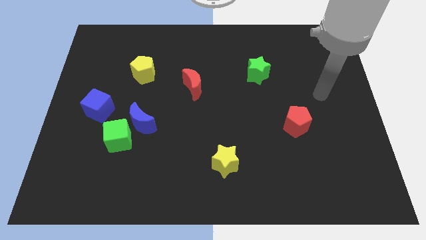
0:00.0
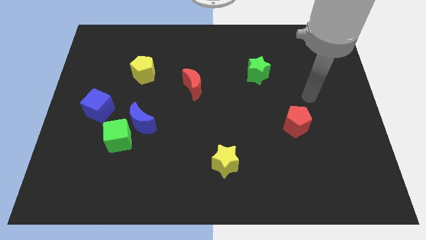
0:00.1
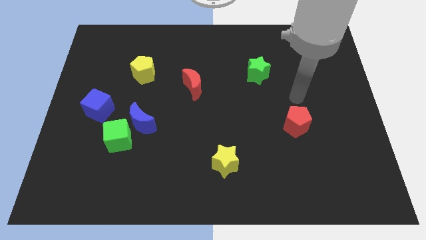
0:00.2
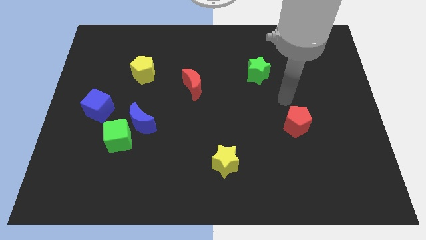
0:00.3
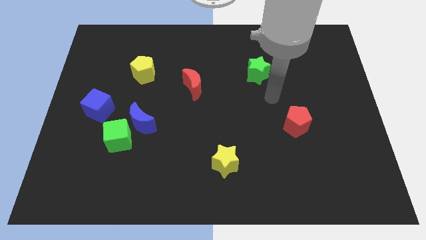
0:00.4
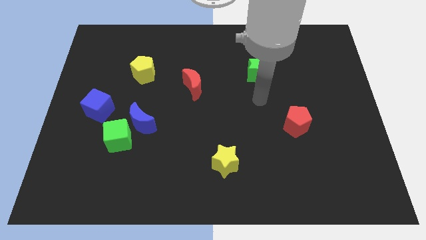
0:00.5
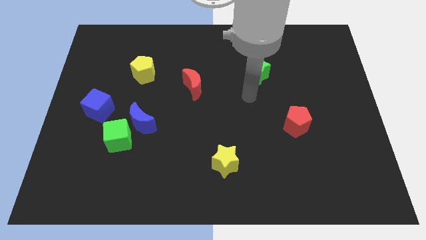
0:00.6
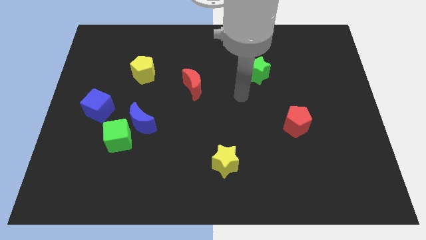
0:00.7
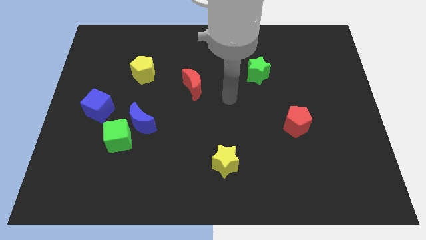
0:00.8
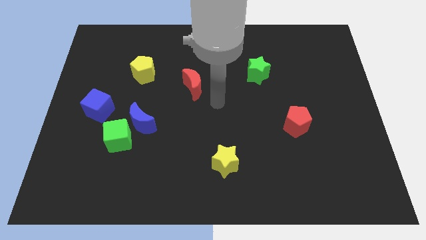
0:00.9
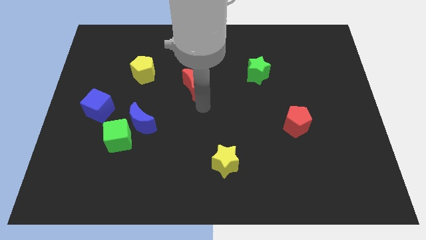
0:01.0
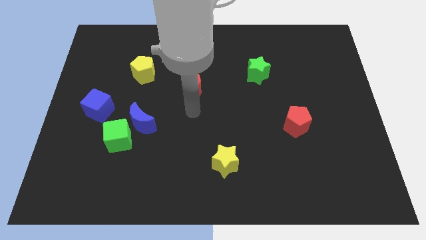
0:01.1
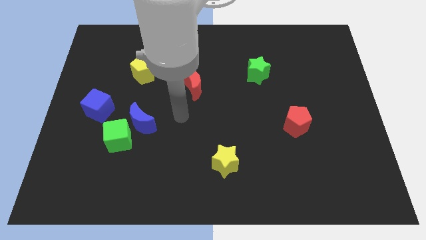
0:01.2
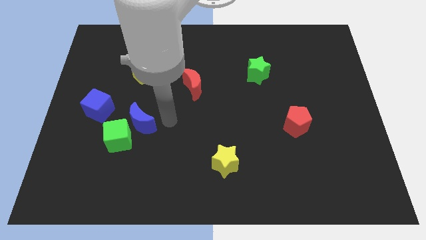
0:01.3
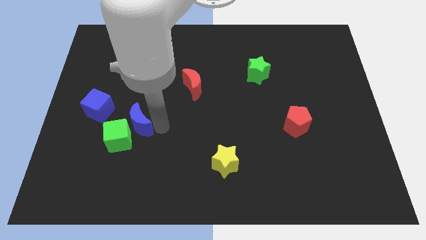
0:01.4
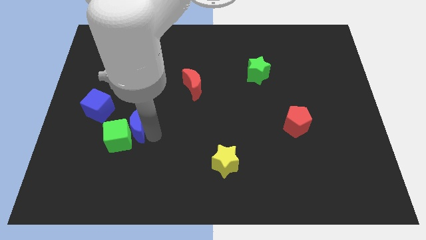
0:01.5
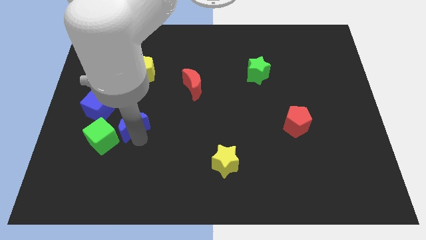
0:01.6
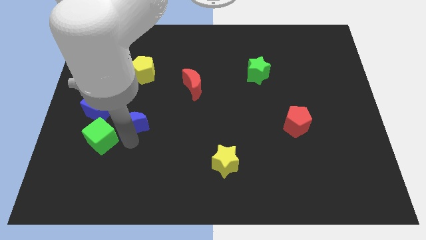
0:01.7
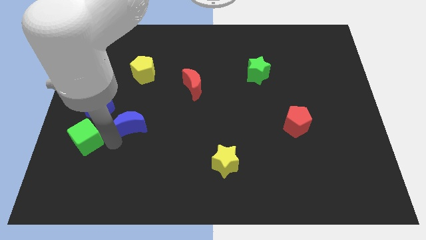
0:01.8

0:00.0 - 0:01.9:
pull the blue moon apart from the green cube

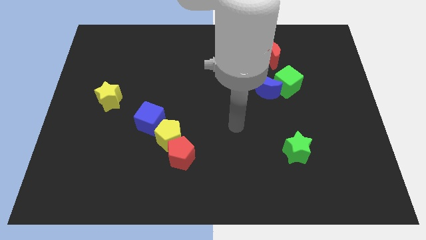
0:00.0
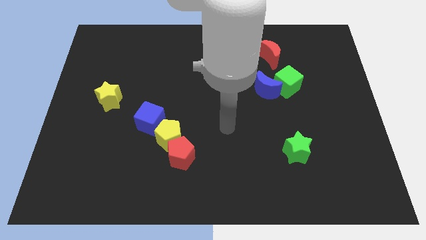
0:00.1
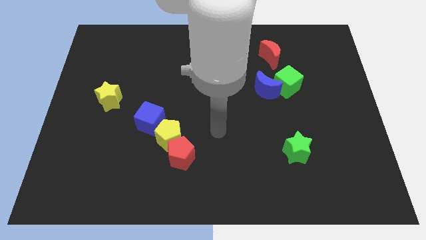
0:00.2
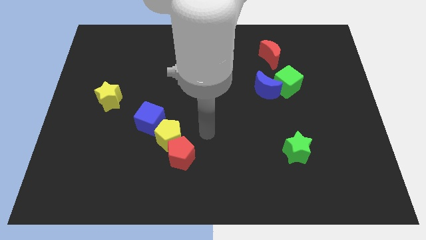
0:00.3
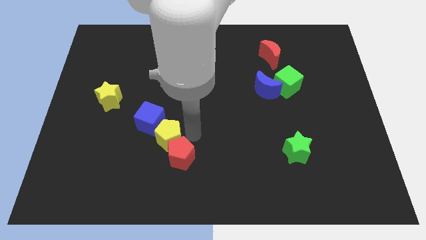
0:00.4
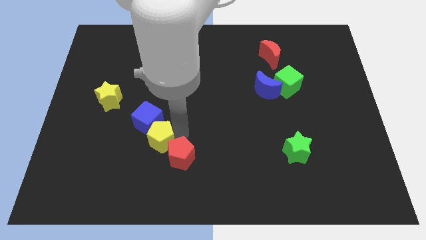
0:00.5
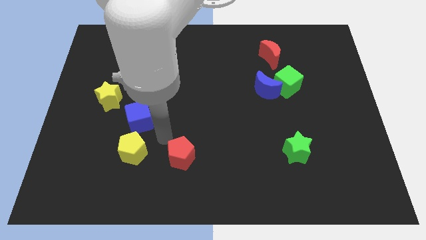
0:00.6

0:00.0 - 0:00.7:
separate the red pentagon from the yellow pentagon

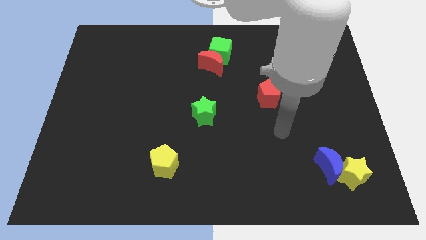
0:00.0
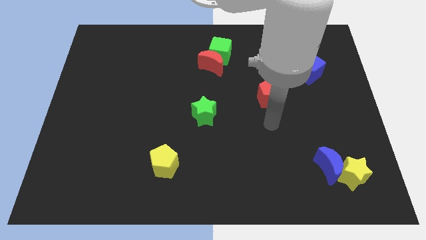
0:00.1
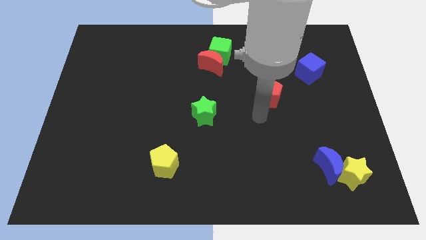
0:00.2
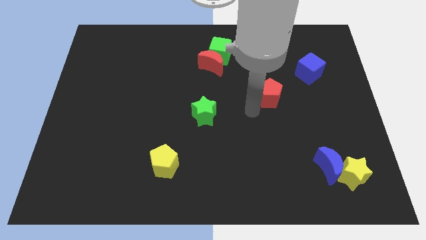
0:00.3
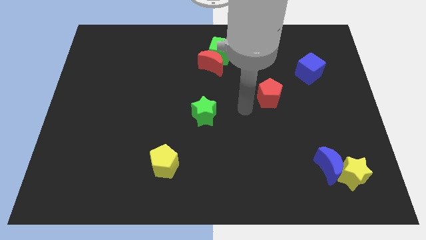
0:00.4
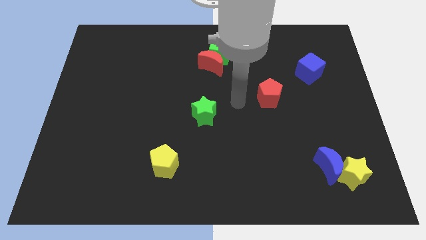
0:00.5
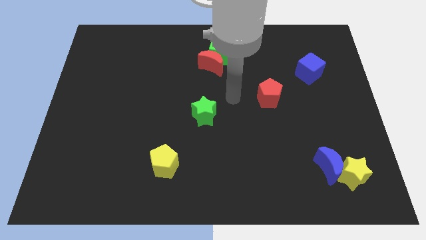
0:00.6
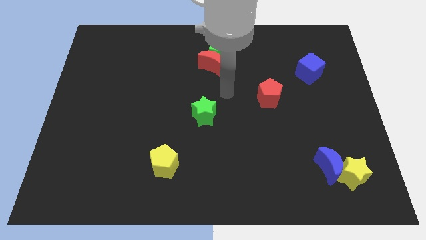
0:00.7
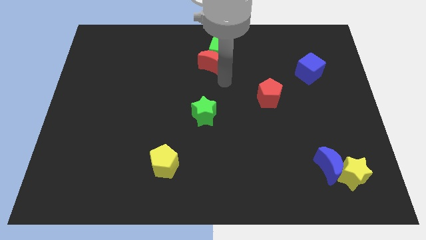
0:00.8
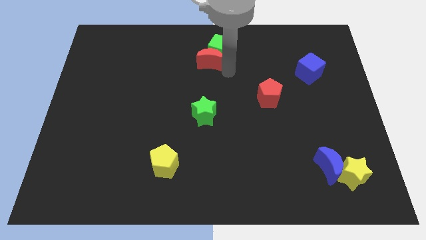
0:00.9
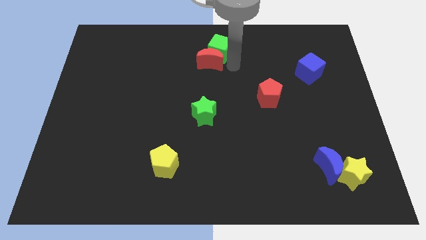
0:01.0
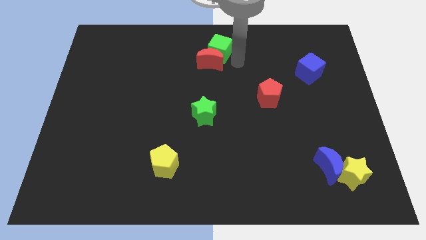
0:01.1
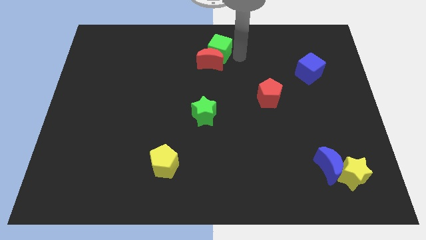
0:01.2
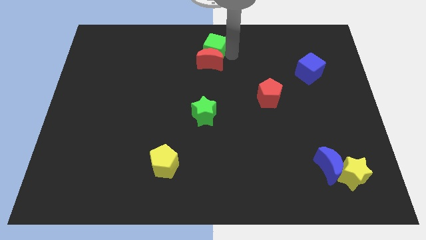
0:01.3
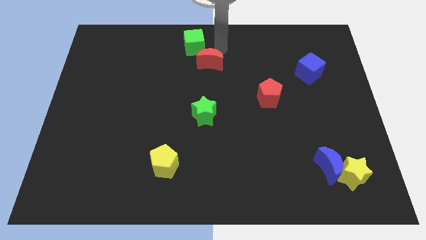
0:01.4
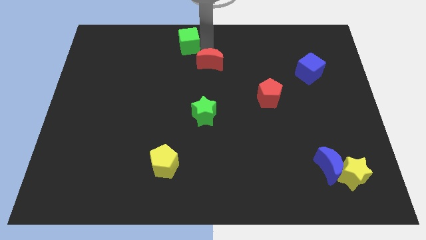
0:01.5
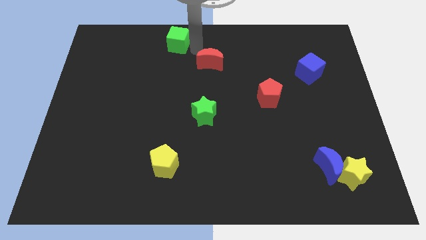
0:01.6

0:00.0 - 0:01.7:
move the red moon away from the green cube

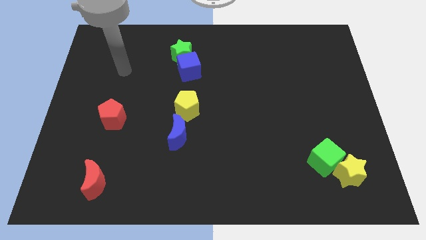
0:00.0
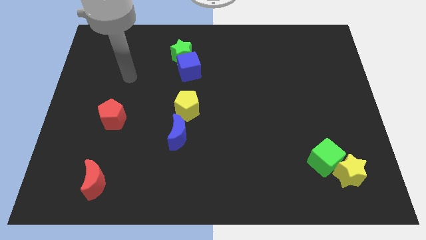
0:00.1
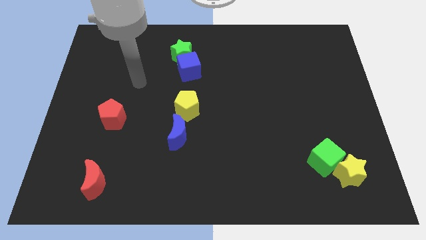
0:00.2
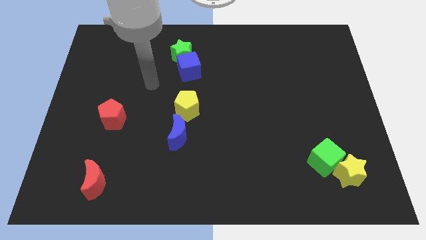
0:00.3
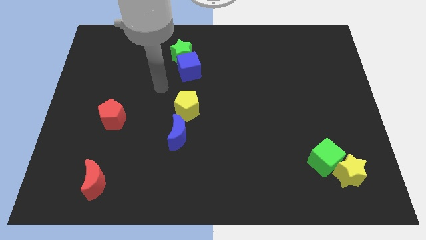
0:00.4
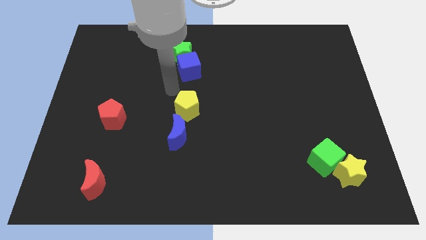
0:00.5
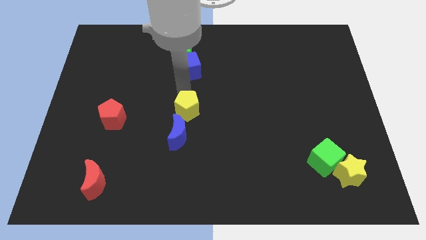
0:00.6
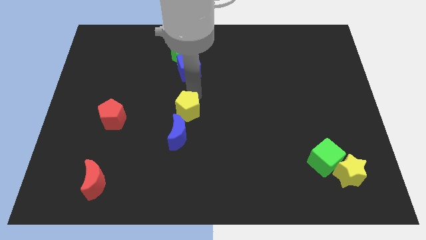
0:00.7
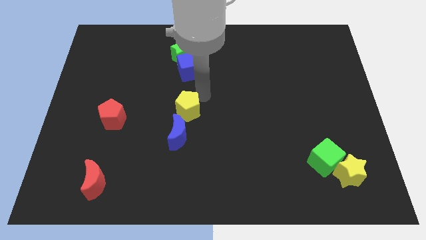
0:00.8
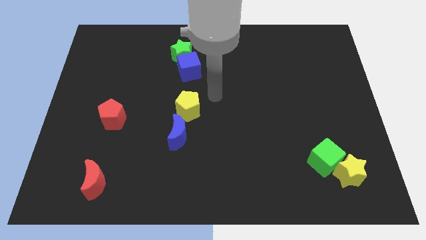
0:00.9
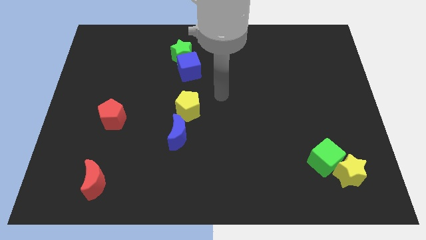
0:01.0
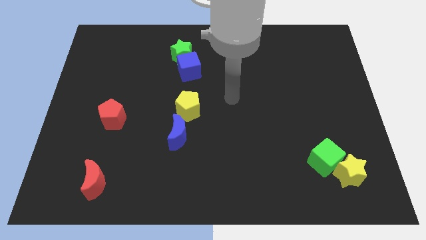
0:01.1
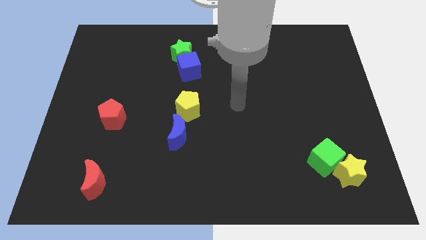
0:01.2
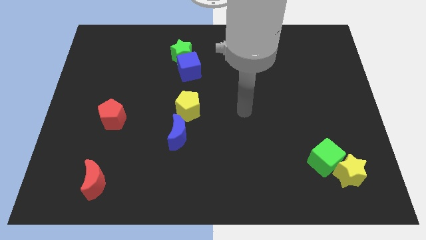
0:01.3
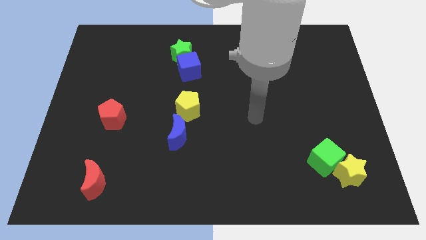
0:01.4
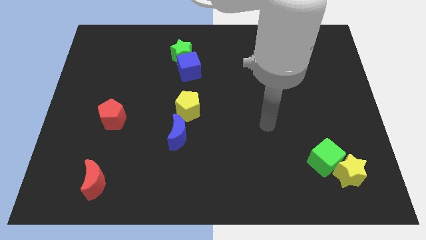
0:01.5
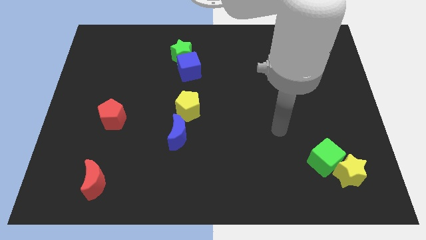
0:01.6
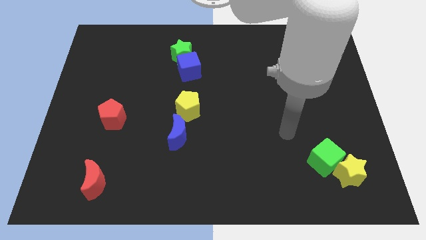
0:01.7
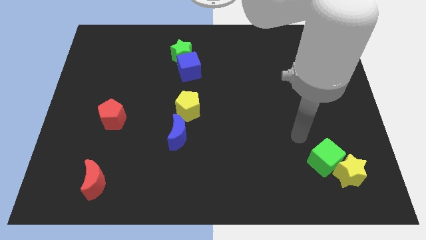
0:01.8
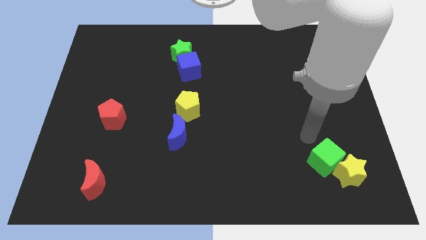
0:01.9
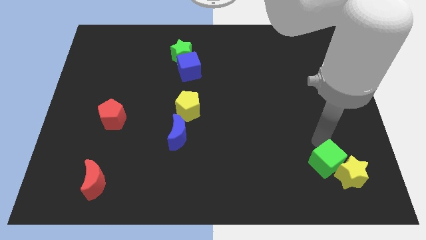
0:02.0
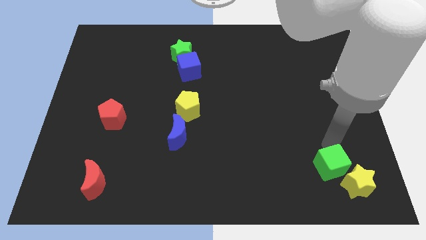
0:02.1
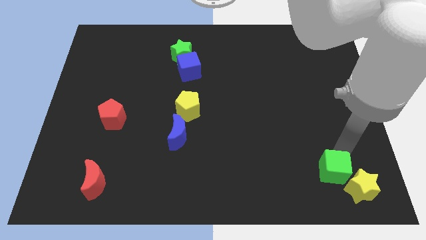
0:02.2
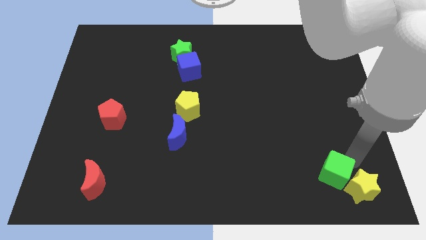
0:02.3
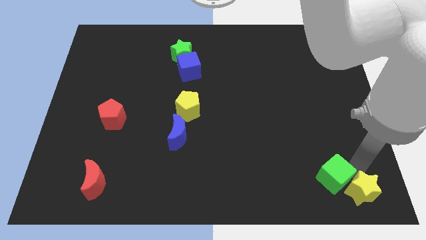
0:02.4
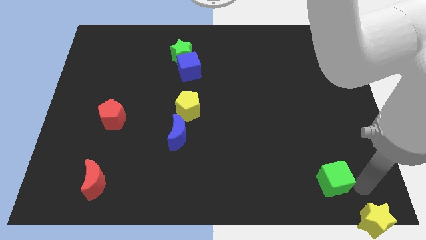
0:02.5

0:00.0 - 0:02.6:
move the green cube away from the yellow star

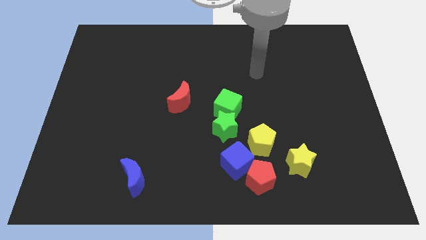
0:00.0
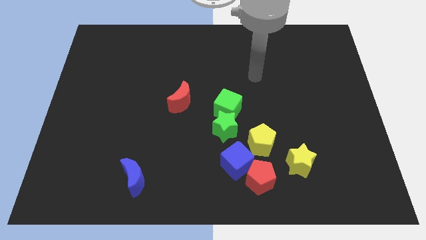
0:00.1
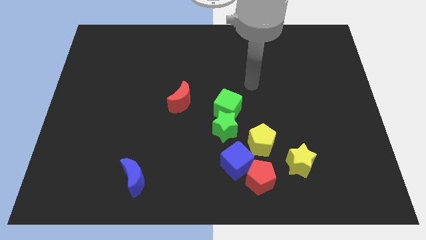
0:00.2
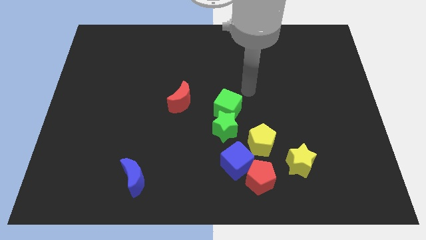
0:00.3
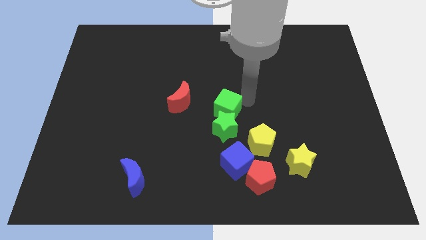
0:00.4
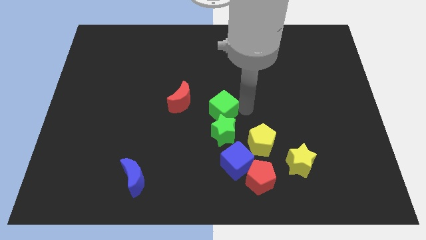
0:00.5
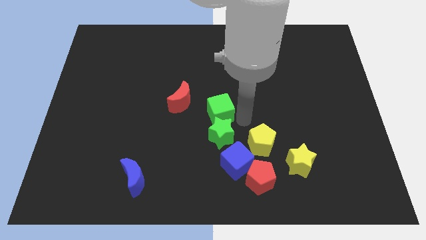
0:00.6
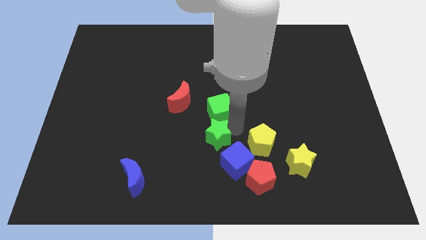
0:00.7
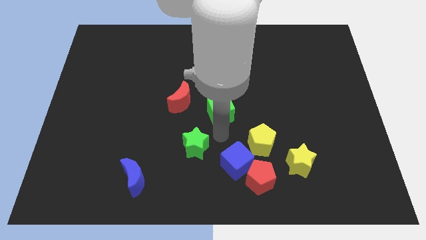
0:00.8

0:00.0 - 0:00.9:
pull the green cube apart from the green star

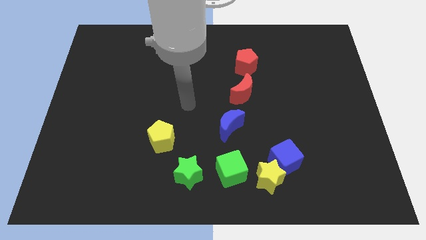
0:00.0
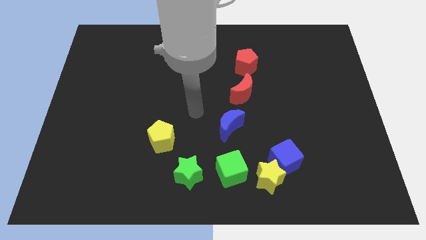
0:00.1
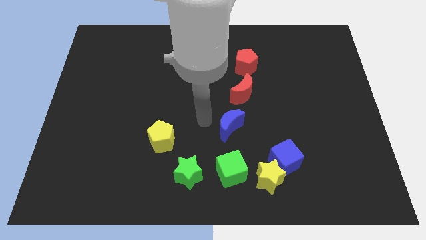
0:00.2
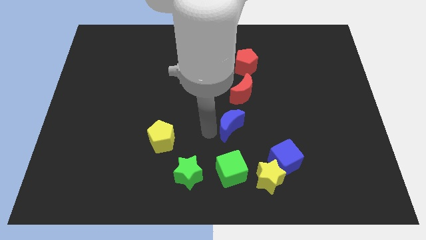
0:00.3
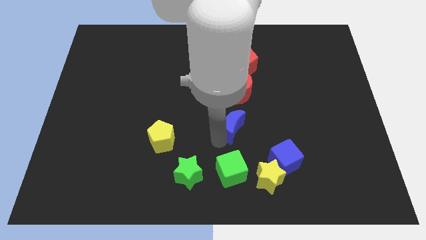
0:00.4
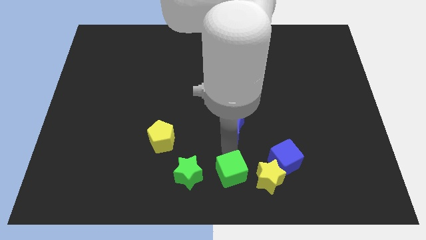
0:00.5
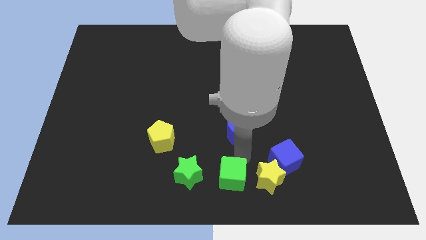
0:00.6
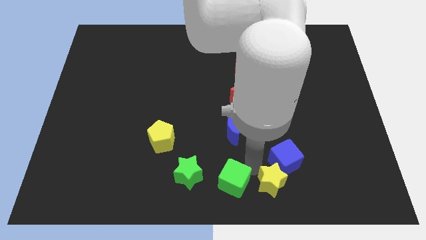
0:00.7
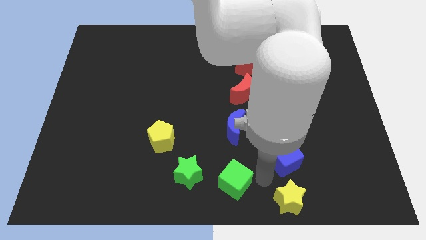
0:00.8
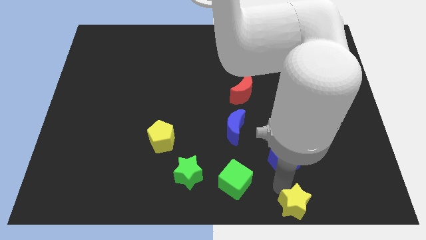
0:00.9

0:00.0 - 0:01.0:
separate the blue cube from the yellow star

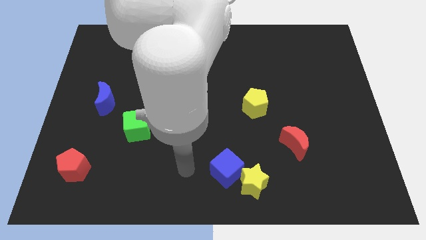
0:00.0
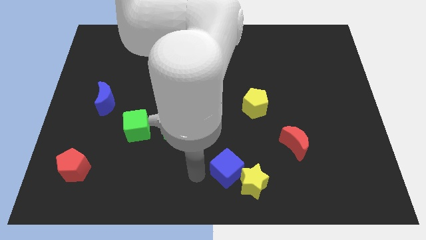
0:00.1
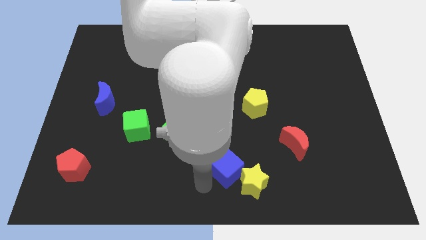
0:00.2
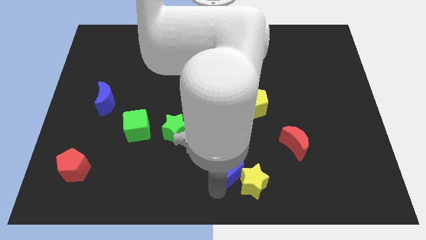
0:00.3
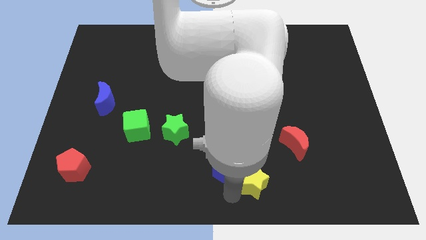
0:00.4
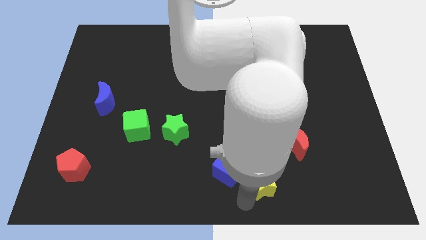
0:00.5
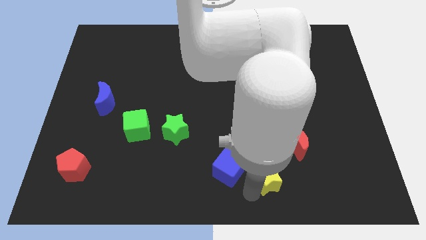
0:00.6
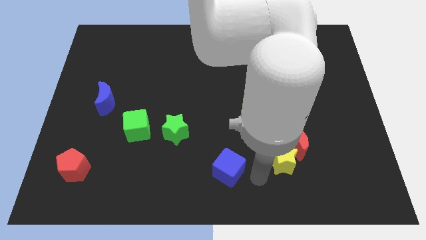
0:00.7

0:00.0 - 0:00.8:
pull the blue cube apart from the yellow star
